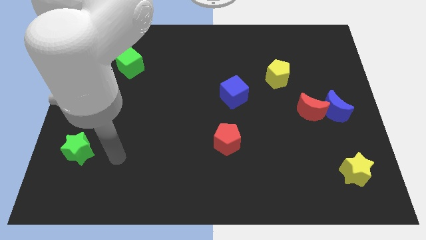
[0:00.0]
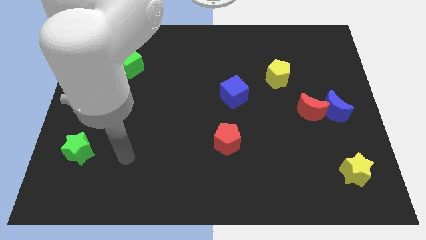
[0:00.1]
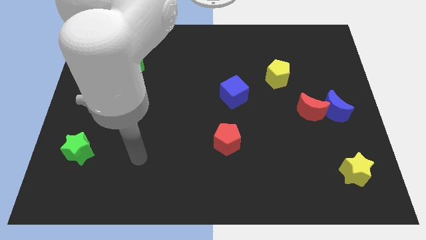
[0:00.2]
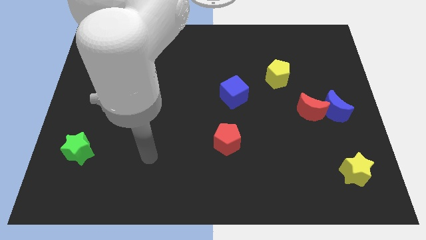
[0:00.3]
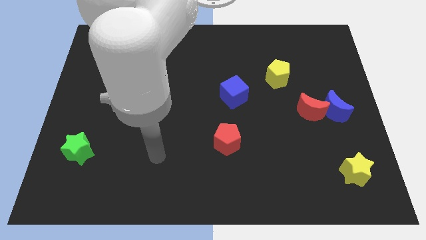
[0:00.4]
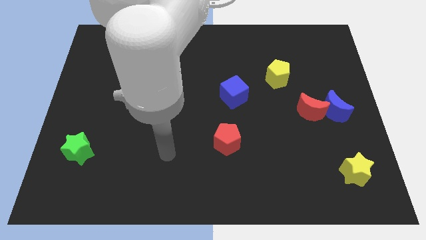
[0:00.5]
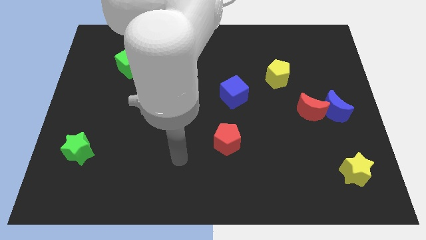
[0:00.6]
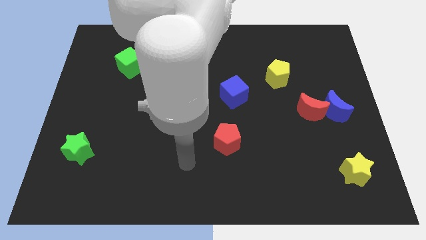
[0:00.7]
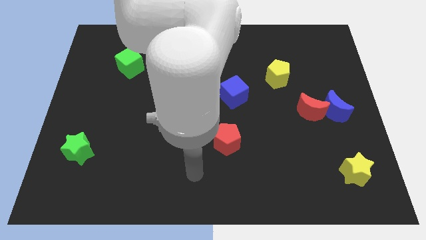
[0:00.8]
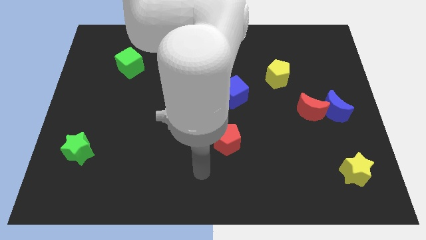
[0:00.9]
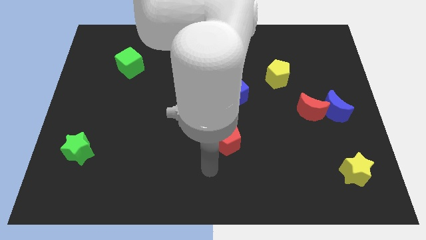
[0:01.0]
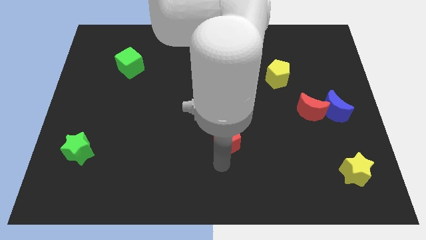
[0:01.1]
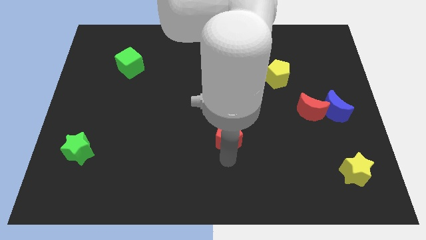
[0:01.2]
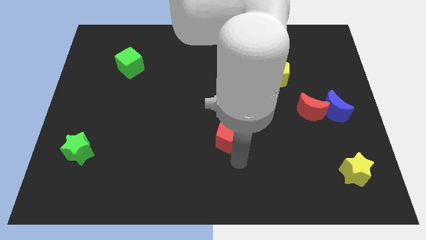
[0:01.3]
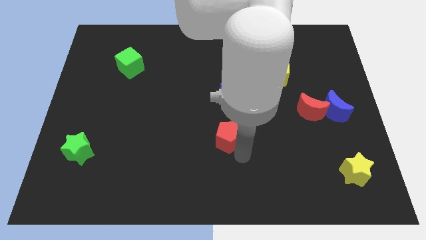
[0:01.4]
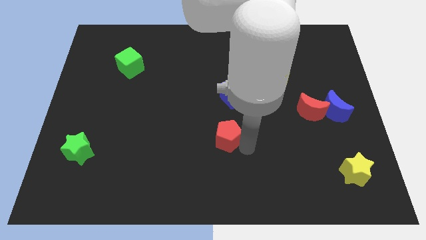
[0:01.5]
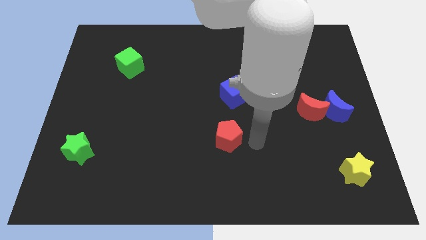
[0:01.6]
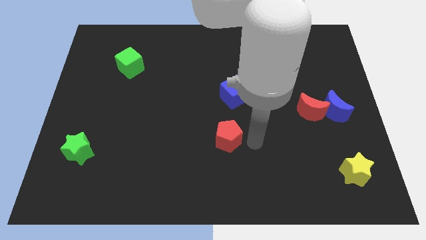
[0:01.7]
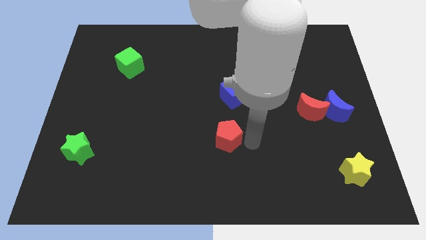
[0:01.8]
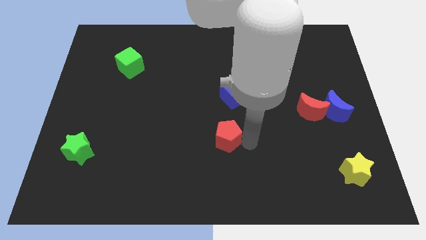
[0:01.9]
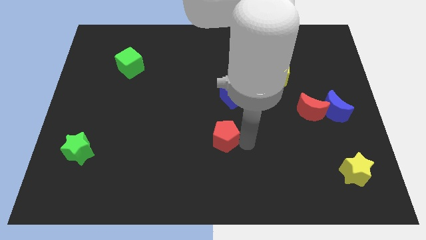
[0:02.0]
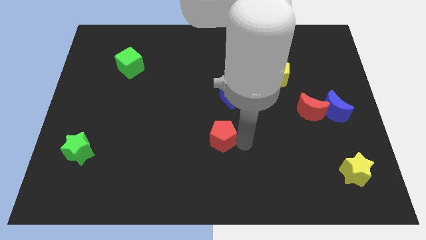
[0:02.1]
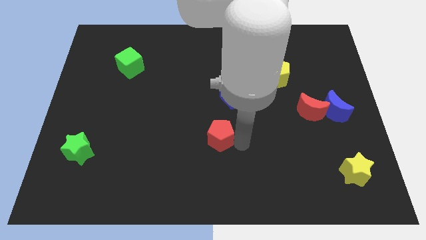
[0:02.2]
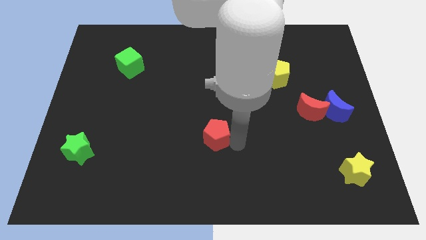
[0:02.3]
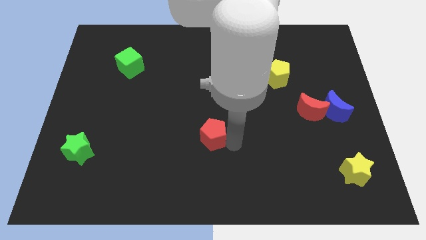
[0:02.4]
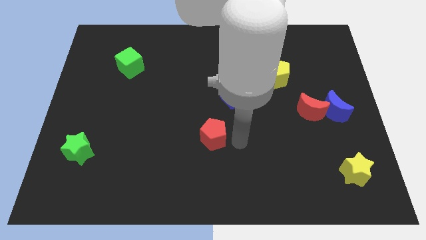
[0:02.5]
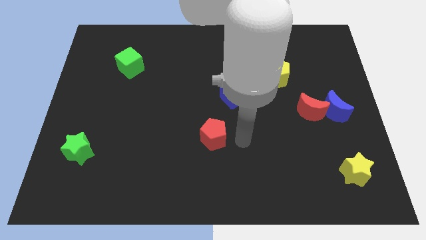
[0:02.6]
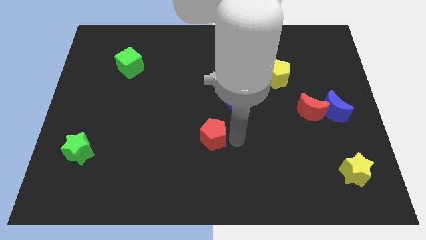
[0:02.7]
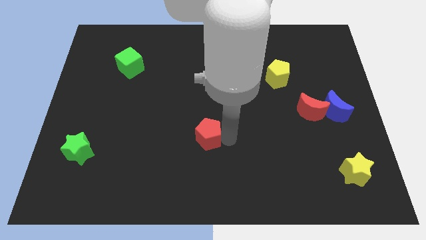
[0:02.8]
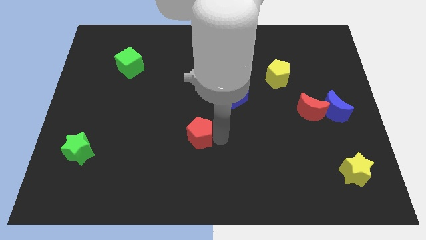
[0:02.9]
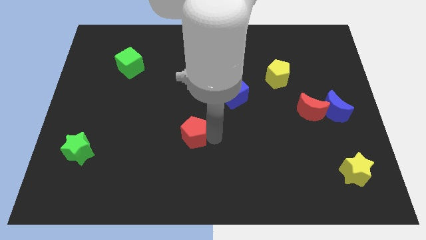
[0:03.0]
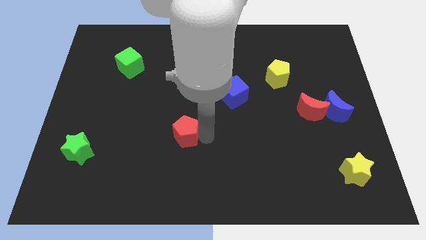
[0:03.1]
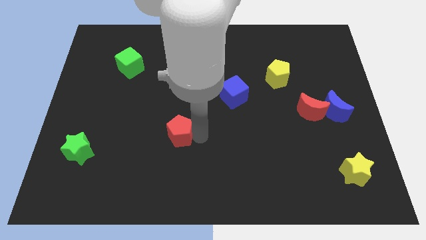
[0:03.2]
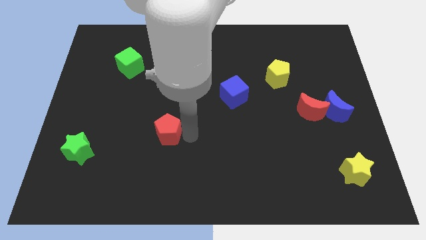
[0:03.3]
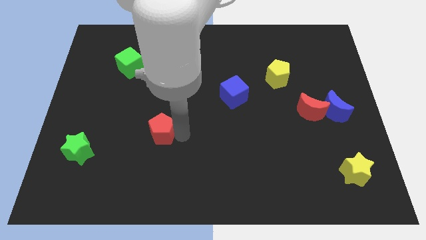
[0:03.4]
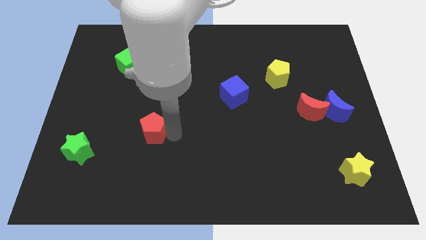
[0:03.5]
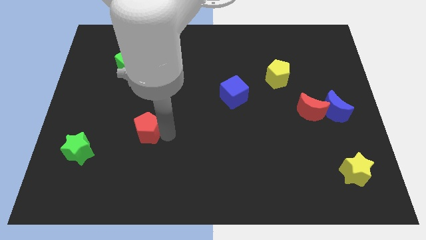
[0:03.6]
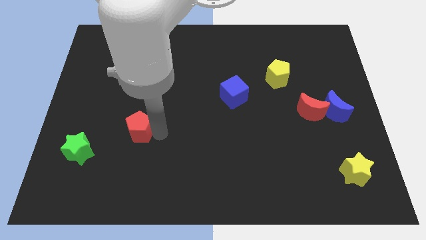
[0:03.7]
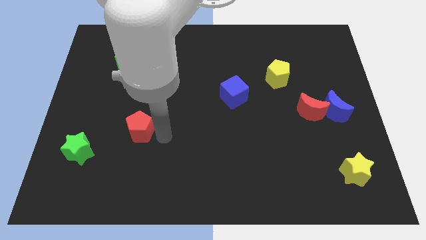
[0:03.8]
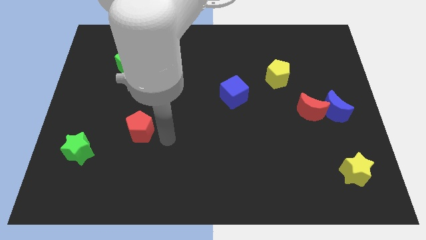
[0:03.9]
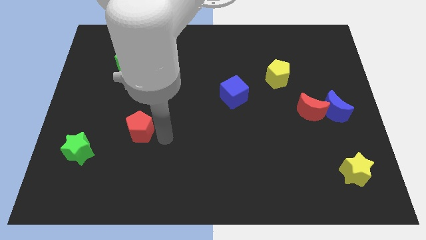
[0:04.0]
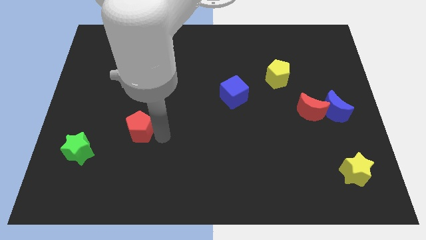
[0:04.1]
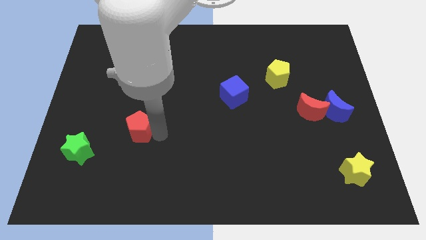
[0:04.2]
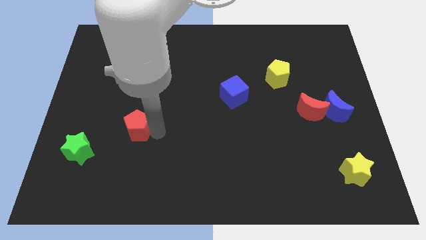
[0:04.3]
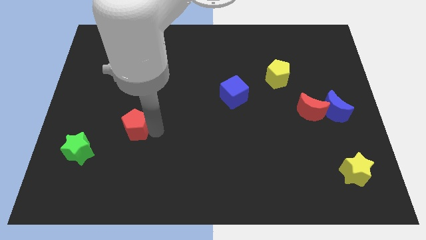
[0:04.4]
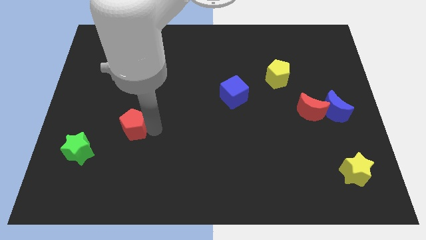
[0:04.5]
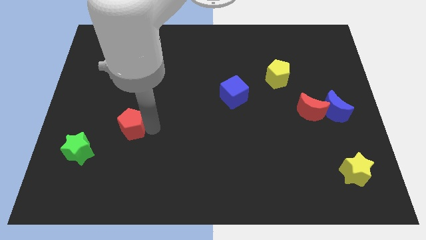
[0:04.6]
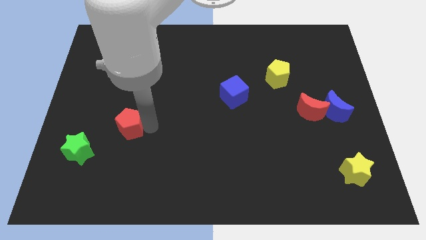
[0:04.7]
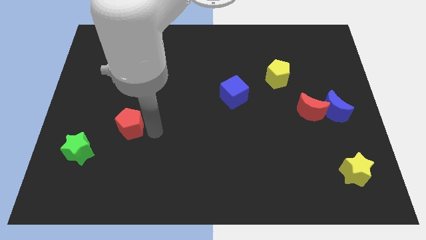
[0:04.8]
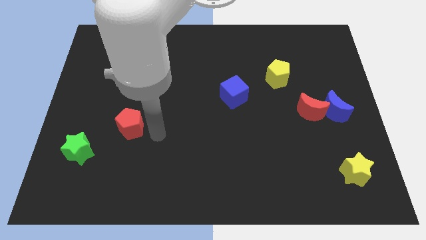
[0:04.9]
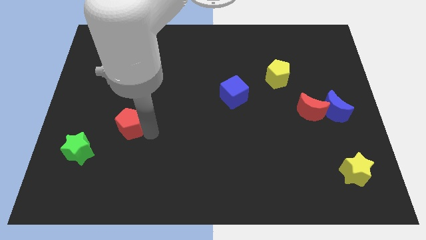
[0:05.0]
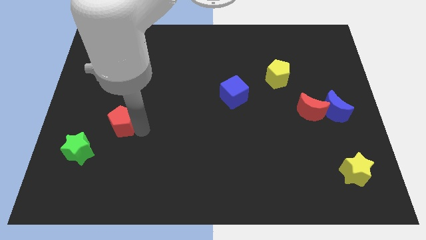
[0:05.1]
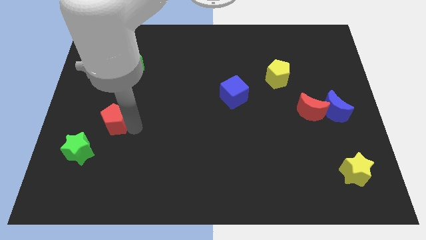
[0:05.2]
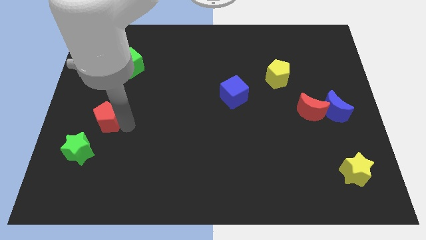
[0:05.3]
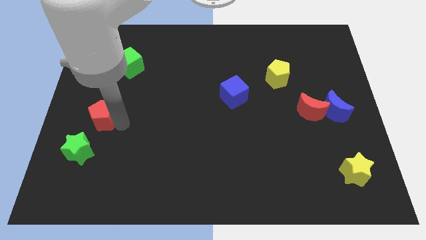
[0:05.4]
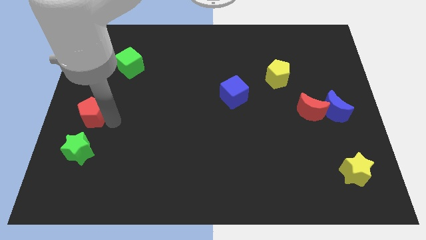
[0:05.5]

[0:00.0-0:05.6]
slide the red pentagon to the left side of the board
